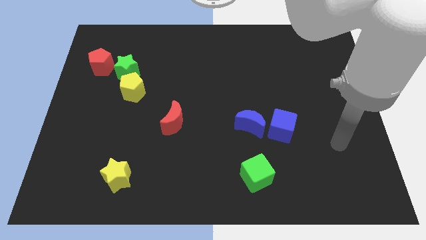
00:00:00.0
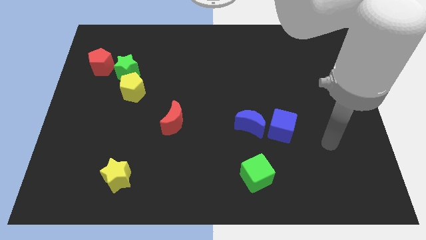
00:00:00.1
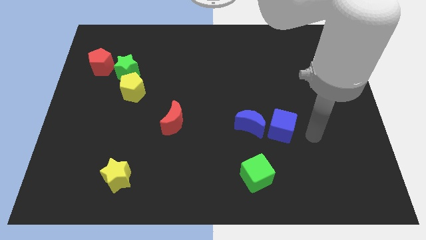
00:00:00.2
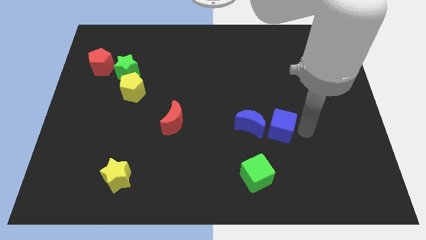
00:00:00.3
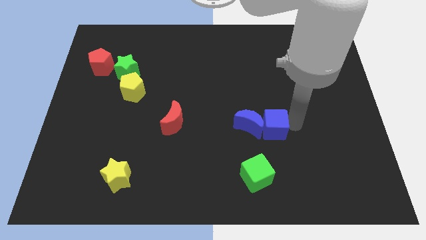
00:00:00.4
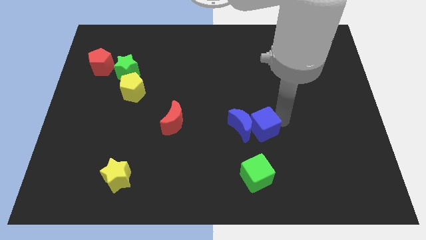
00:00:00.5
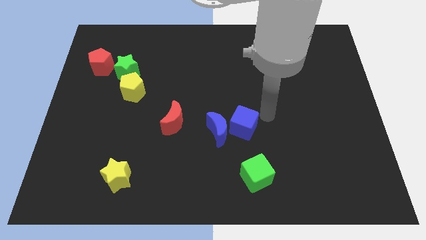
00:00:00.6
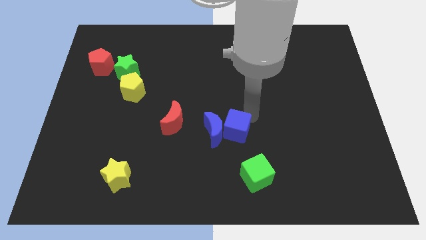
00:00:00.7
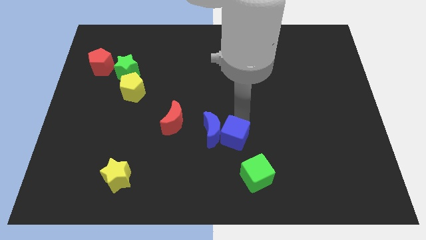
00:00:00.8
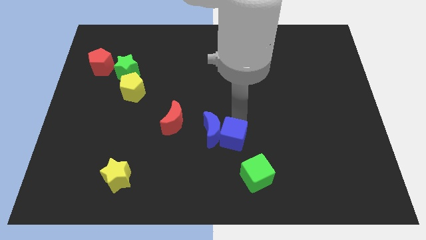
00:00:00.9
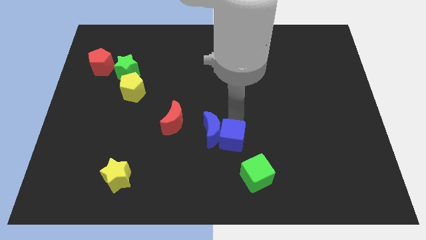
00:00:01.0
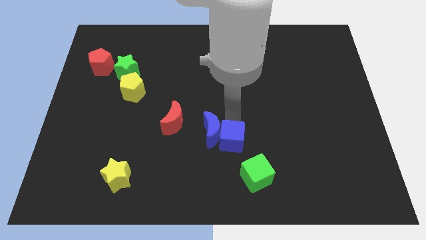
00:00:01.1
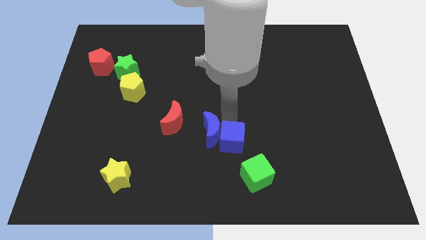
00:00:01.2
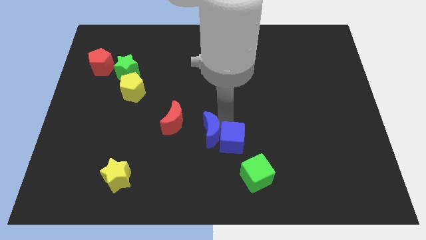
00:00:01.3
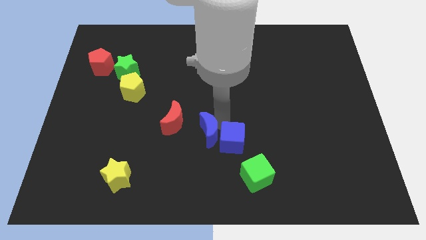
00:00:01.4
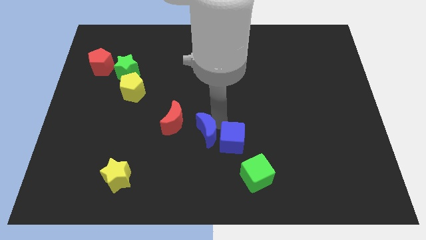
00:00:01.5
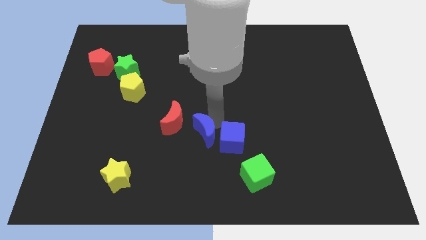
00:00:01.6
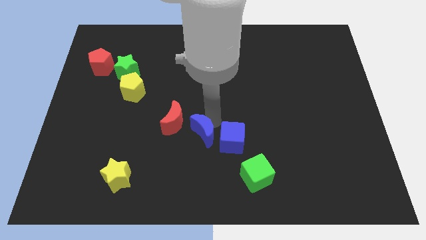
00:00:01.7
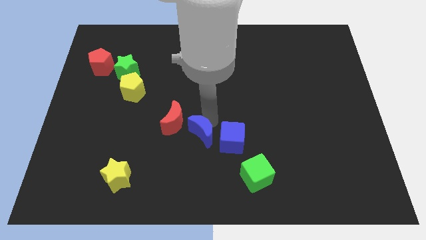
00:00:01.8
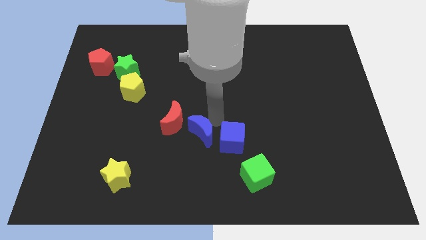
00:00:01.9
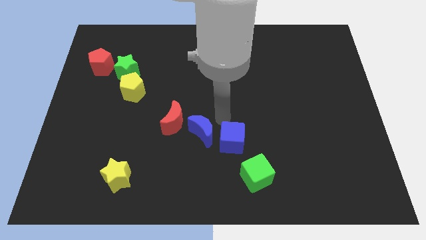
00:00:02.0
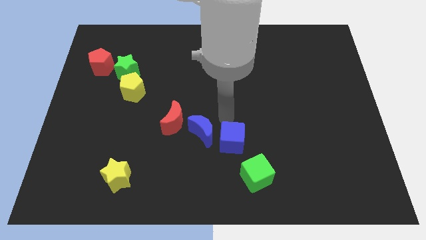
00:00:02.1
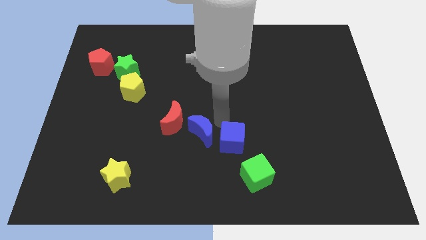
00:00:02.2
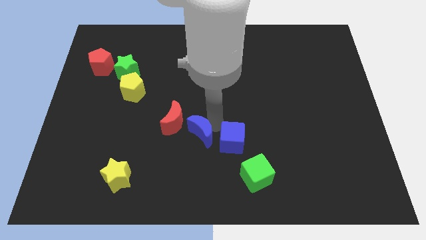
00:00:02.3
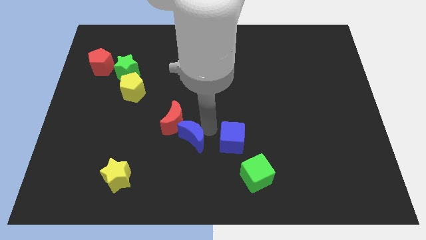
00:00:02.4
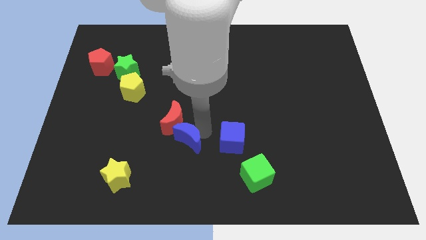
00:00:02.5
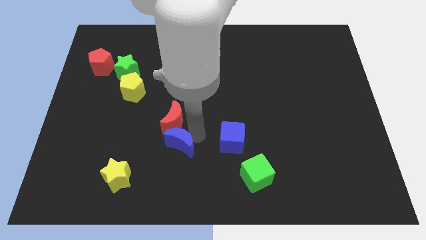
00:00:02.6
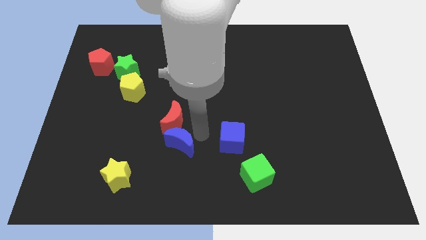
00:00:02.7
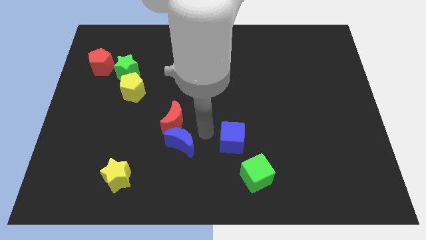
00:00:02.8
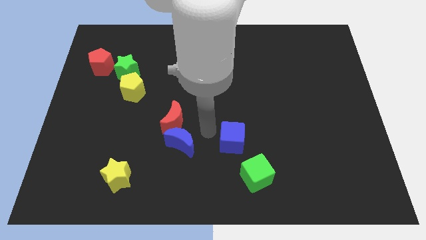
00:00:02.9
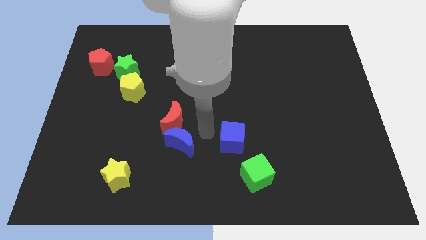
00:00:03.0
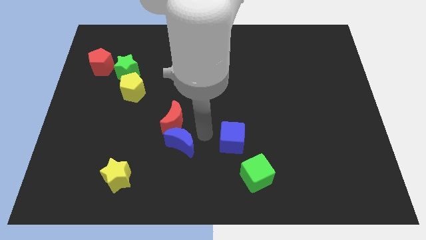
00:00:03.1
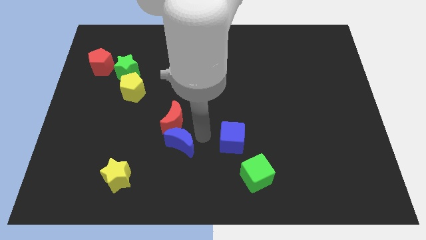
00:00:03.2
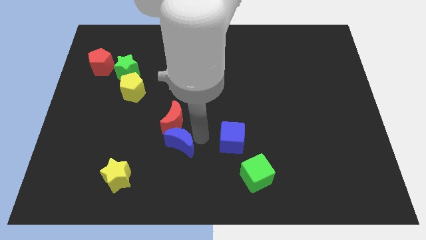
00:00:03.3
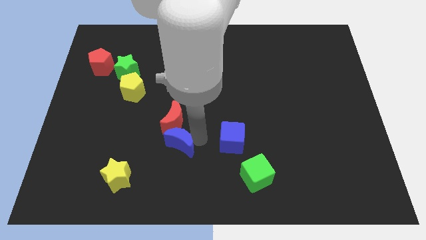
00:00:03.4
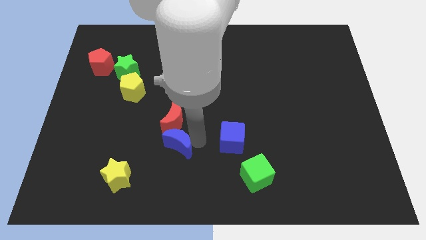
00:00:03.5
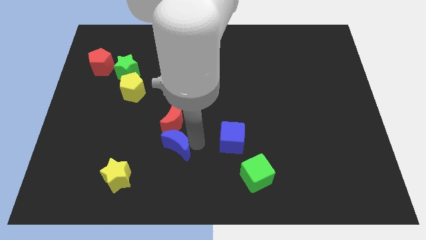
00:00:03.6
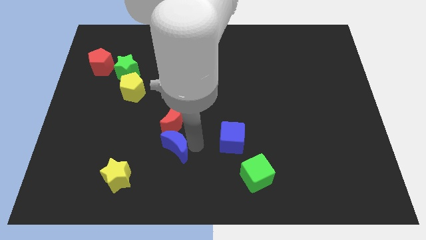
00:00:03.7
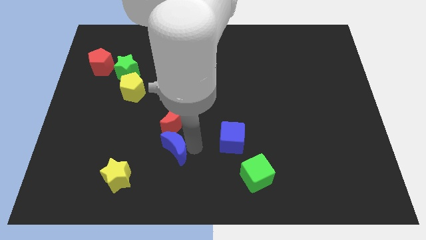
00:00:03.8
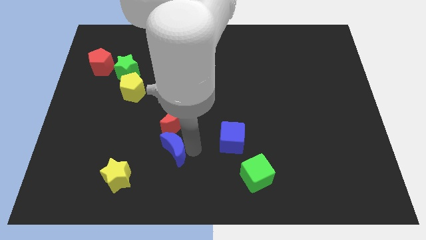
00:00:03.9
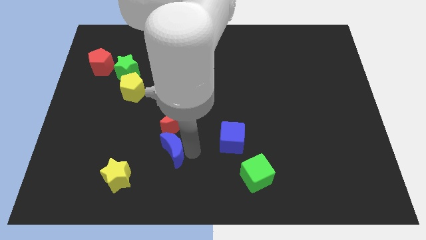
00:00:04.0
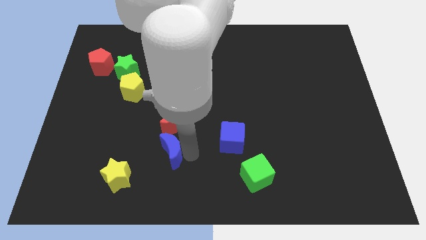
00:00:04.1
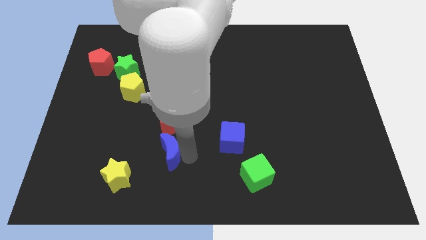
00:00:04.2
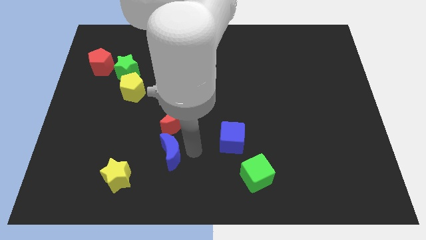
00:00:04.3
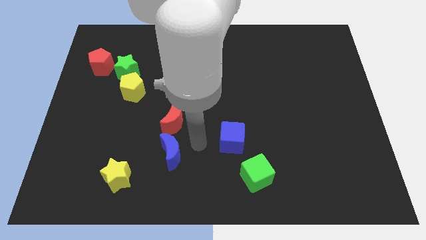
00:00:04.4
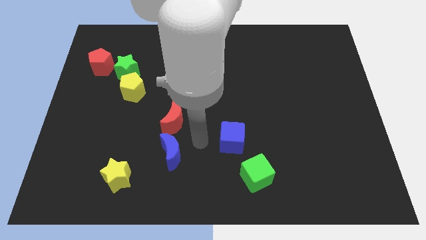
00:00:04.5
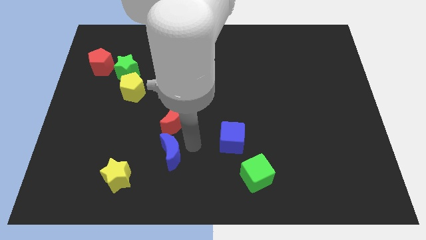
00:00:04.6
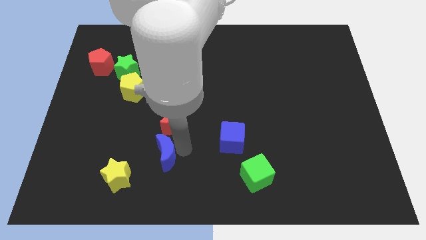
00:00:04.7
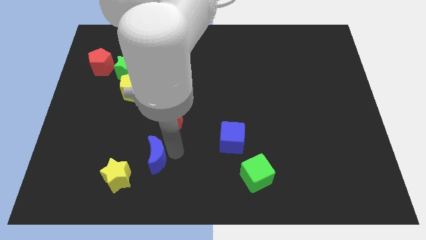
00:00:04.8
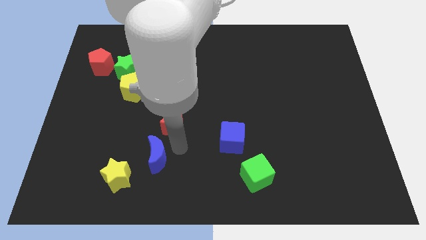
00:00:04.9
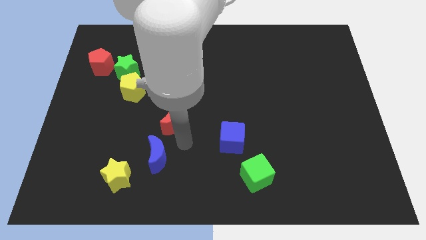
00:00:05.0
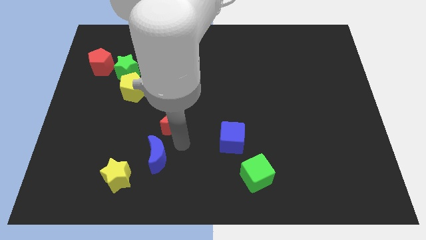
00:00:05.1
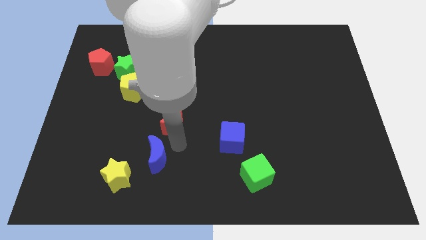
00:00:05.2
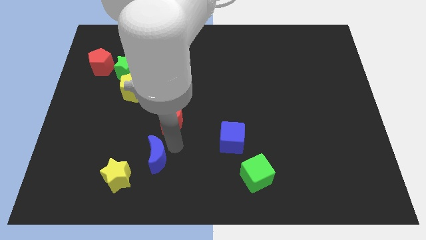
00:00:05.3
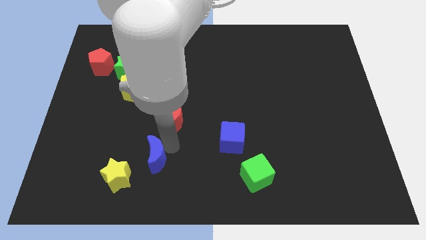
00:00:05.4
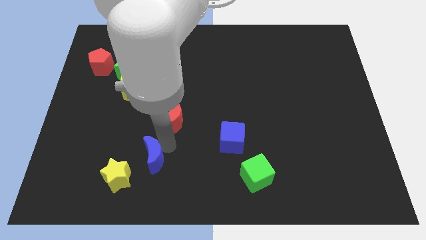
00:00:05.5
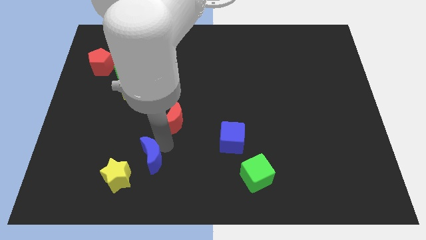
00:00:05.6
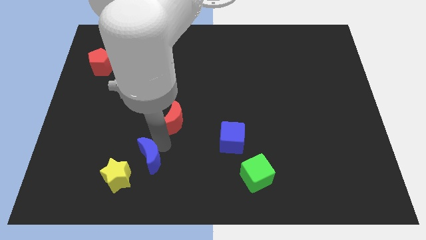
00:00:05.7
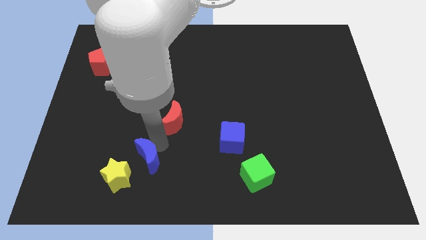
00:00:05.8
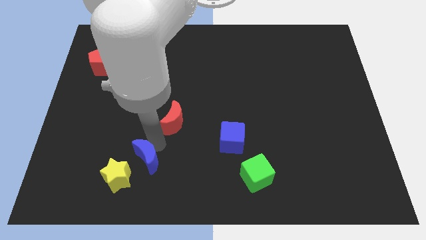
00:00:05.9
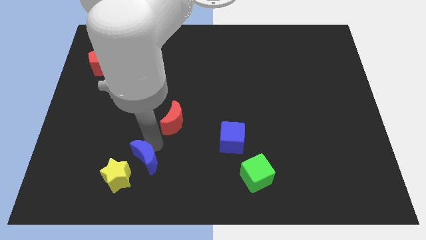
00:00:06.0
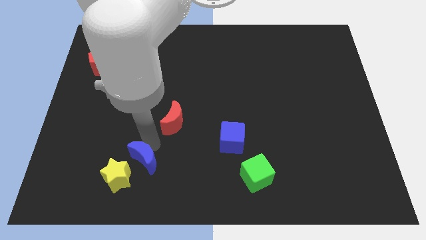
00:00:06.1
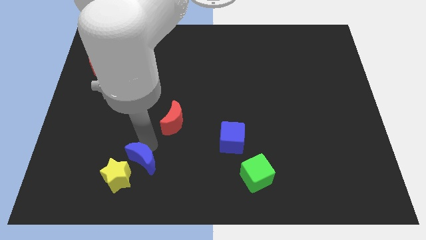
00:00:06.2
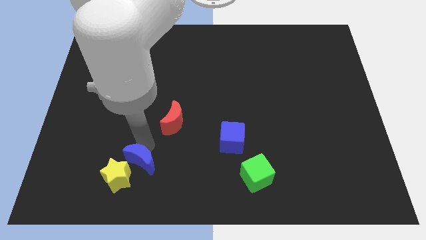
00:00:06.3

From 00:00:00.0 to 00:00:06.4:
push the blue moon towards the yellow star
